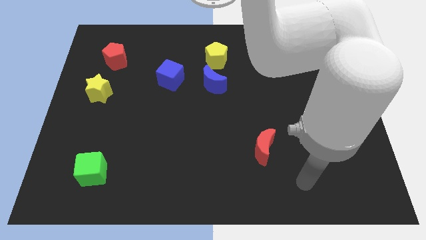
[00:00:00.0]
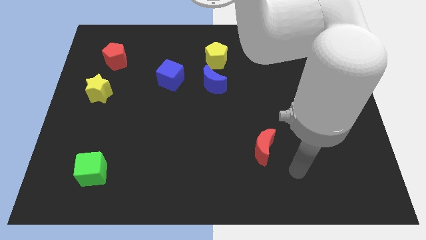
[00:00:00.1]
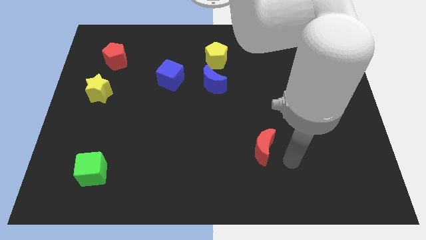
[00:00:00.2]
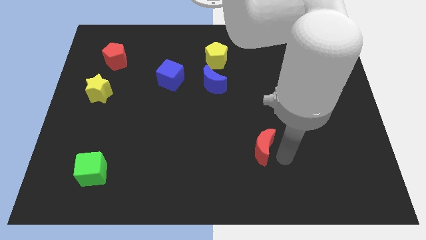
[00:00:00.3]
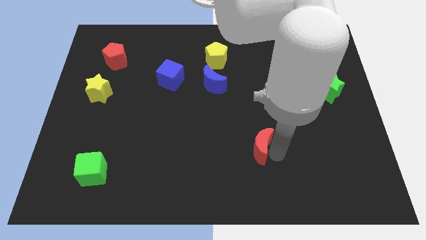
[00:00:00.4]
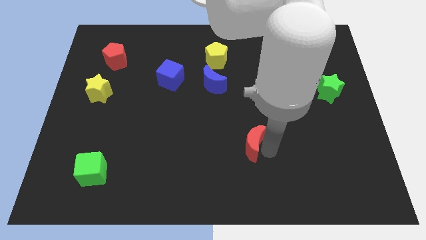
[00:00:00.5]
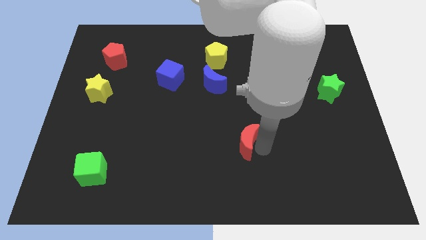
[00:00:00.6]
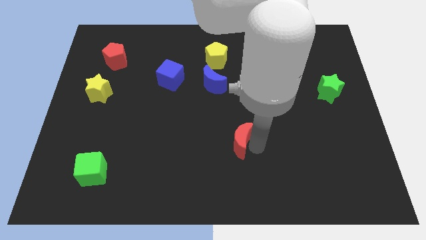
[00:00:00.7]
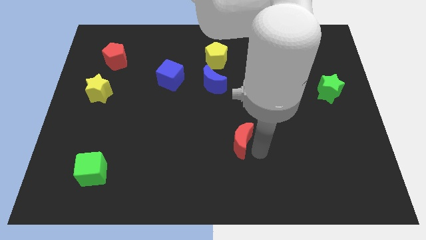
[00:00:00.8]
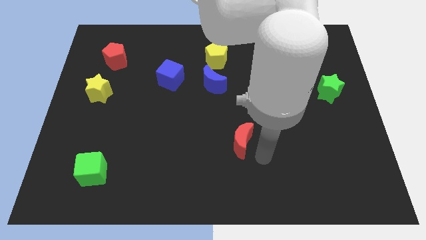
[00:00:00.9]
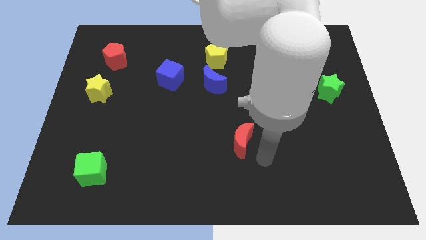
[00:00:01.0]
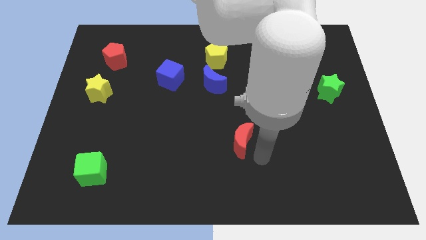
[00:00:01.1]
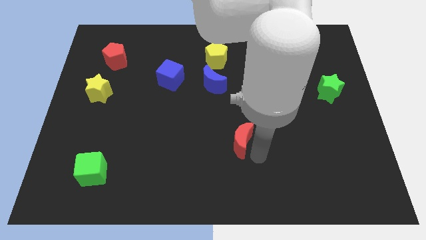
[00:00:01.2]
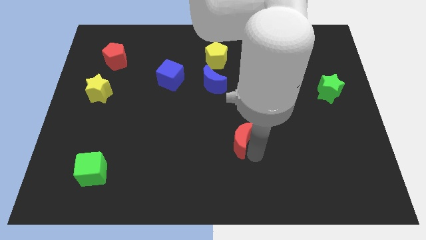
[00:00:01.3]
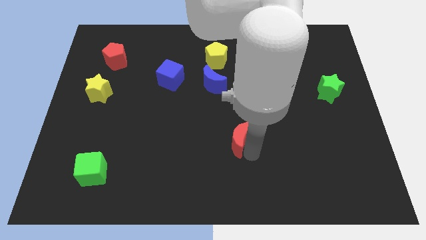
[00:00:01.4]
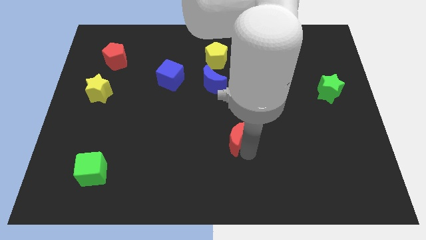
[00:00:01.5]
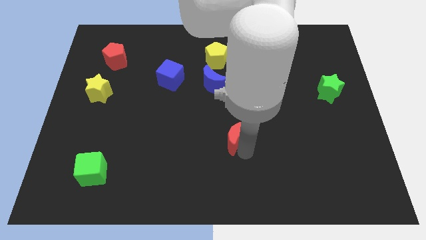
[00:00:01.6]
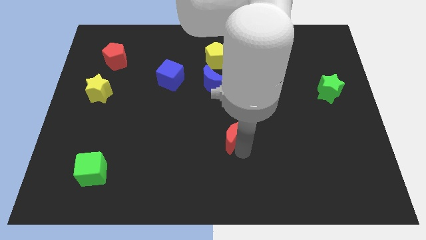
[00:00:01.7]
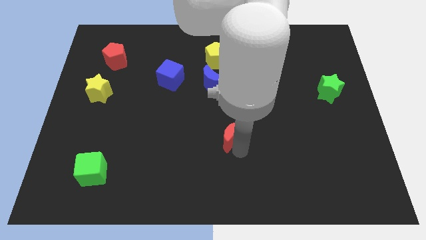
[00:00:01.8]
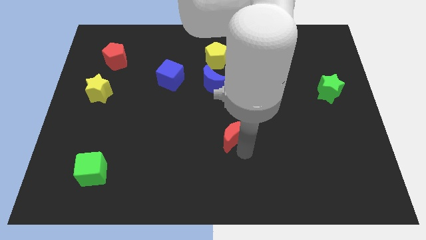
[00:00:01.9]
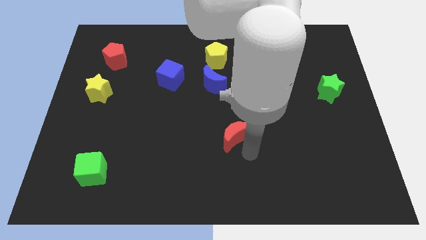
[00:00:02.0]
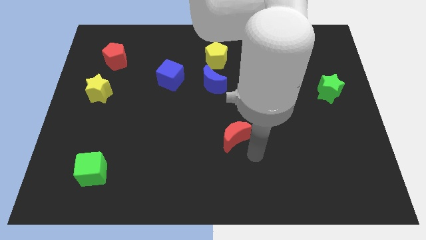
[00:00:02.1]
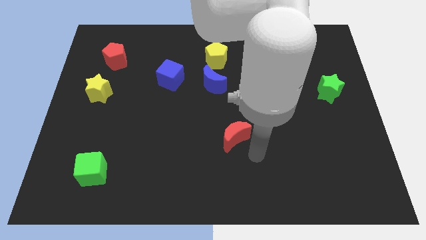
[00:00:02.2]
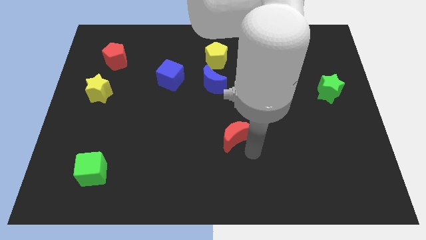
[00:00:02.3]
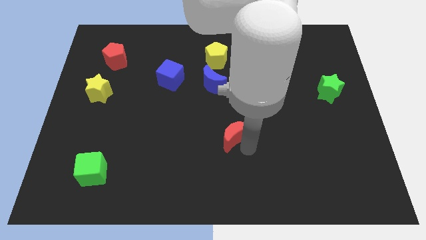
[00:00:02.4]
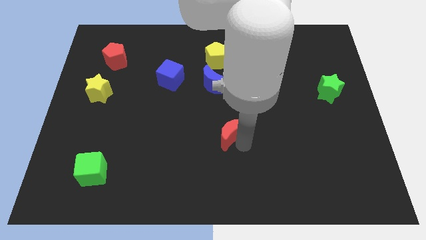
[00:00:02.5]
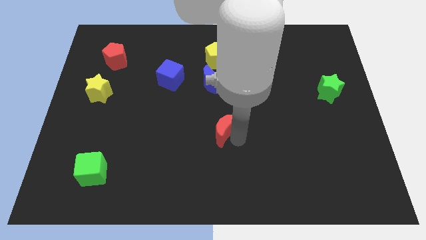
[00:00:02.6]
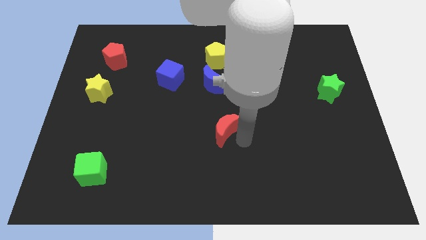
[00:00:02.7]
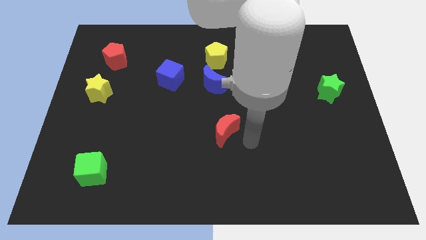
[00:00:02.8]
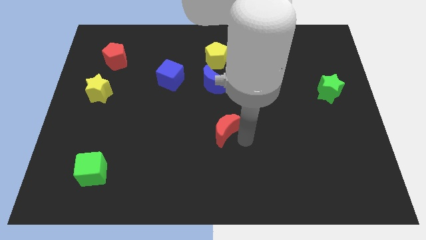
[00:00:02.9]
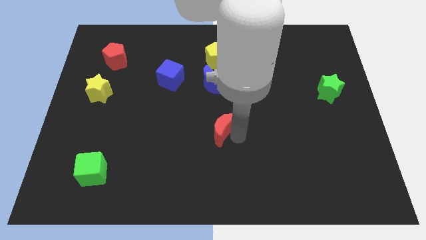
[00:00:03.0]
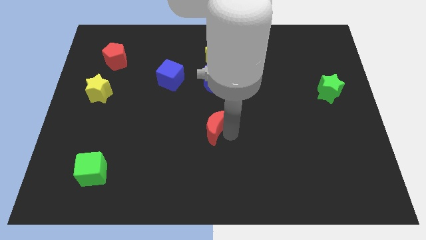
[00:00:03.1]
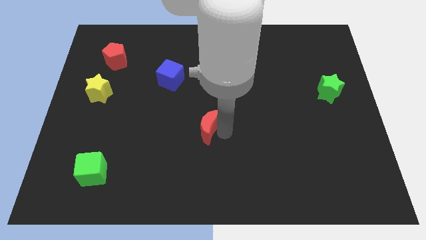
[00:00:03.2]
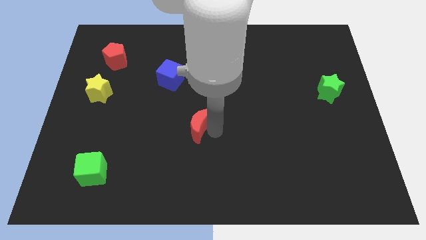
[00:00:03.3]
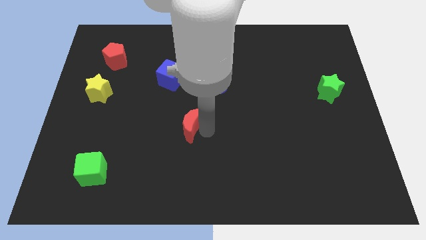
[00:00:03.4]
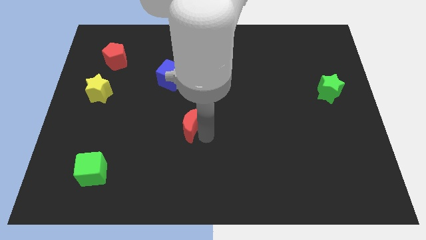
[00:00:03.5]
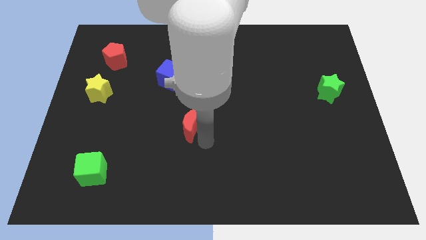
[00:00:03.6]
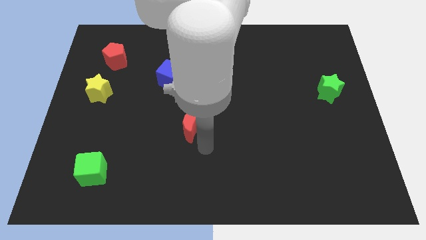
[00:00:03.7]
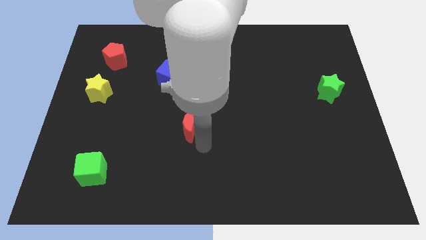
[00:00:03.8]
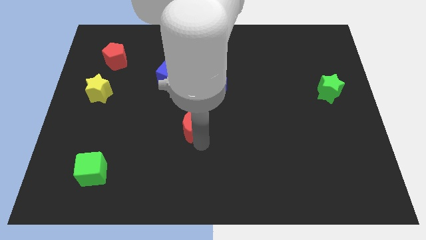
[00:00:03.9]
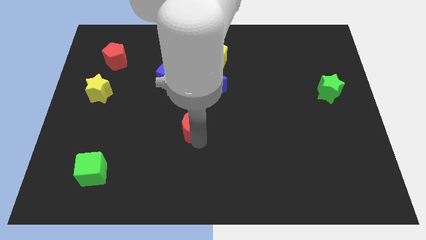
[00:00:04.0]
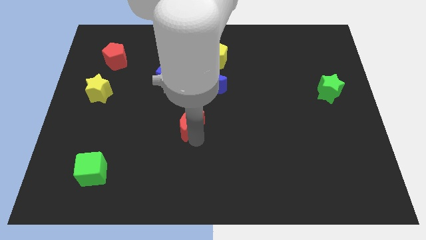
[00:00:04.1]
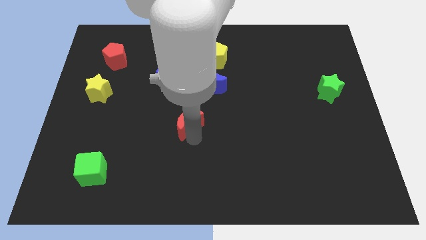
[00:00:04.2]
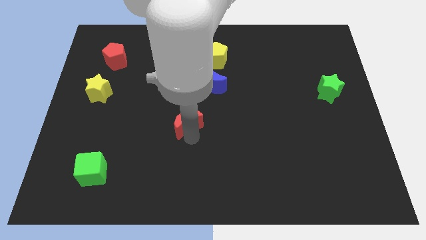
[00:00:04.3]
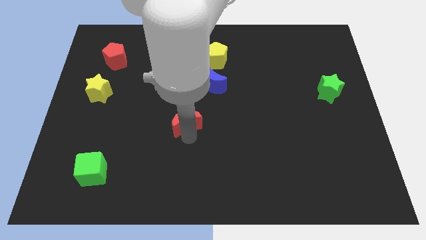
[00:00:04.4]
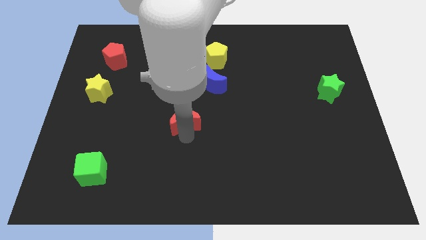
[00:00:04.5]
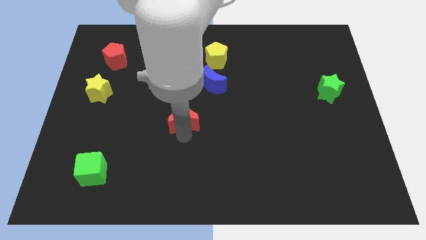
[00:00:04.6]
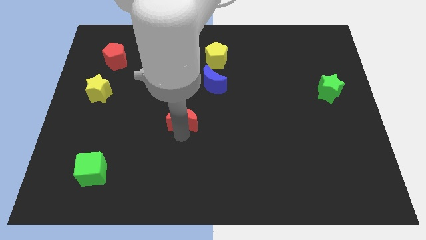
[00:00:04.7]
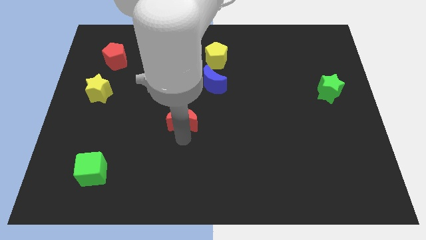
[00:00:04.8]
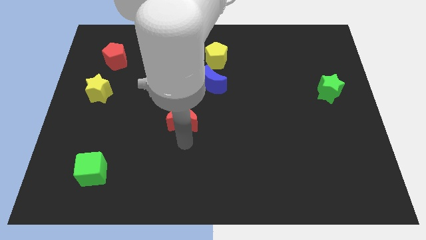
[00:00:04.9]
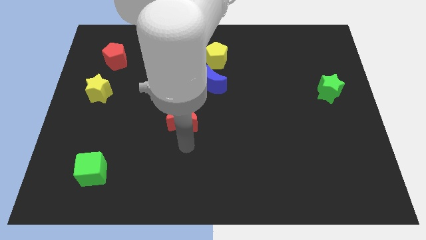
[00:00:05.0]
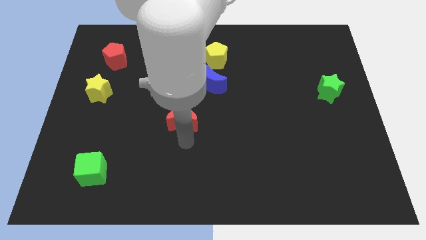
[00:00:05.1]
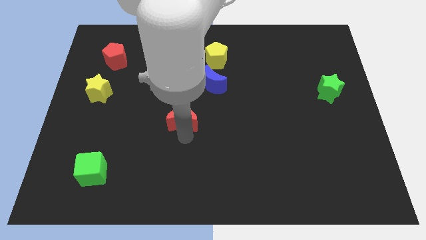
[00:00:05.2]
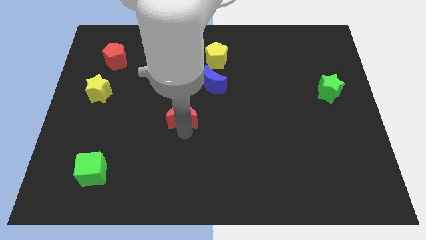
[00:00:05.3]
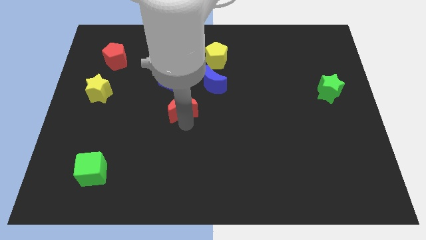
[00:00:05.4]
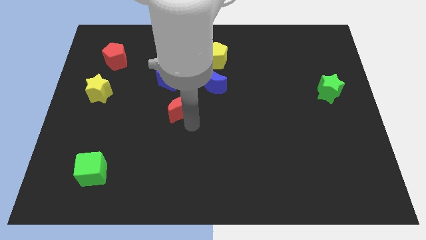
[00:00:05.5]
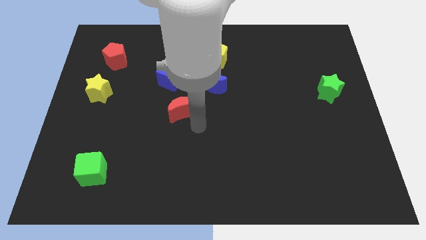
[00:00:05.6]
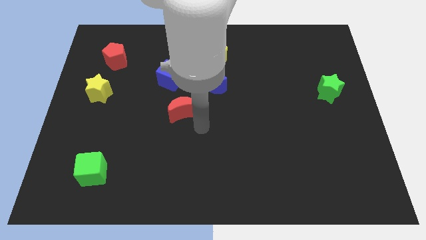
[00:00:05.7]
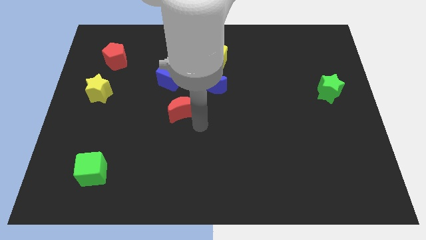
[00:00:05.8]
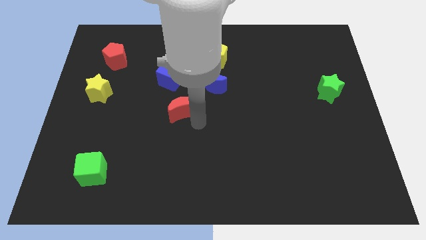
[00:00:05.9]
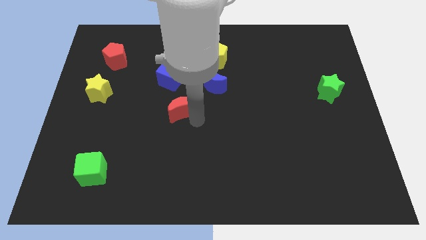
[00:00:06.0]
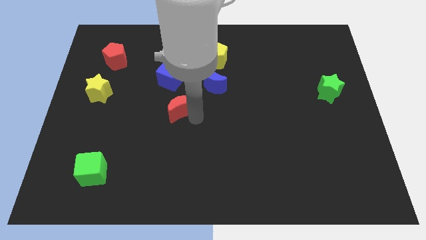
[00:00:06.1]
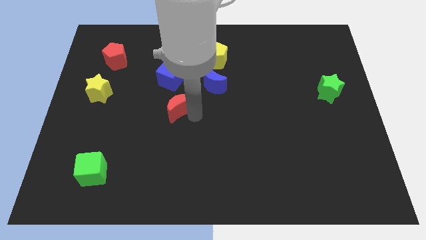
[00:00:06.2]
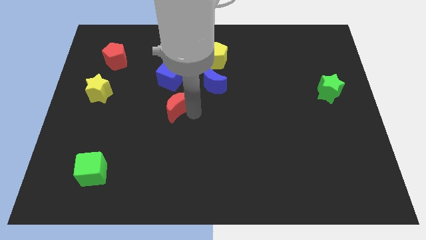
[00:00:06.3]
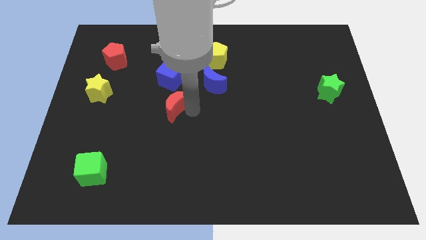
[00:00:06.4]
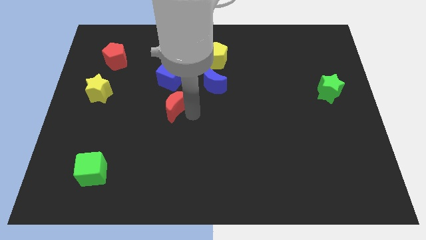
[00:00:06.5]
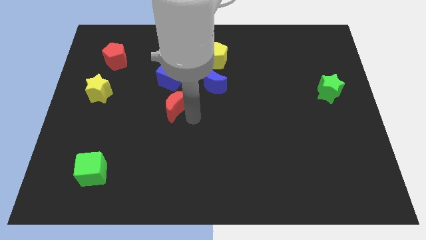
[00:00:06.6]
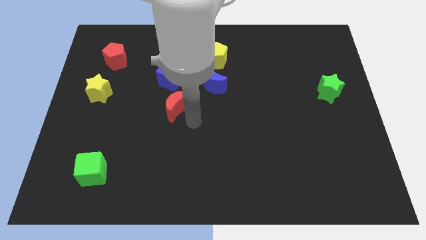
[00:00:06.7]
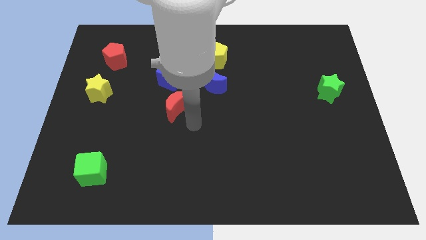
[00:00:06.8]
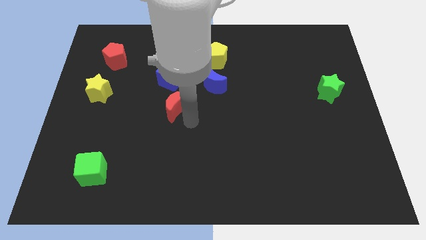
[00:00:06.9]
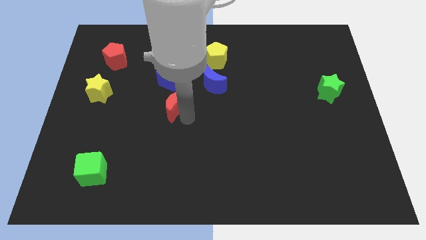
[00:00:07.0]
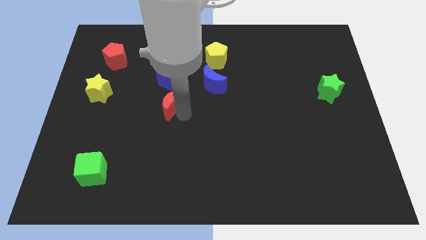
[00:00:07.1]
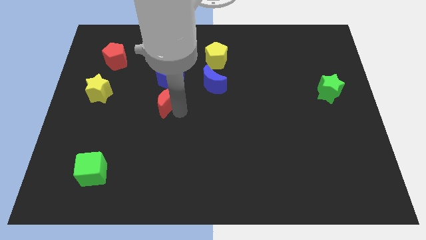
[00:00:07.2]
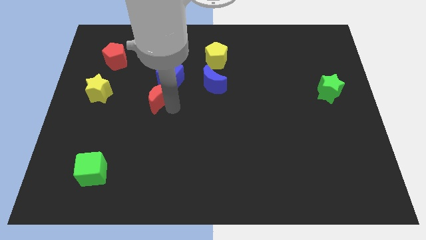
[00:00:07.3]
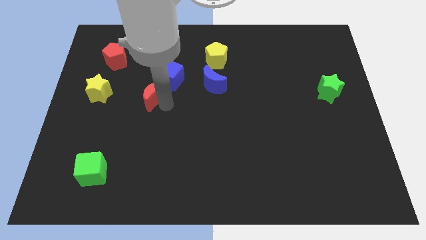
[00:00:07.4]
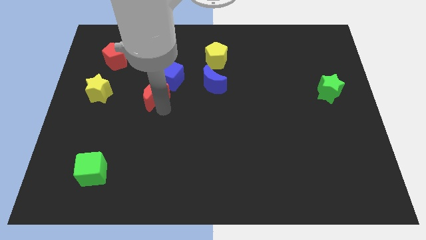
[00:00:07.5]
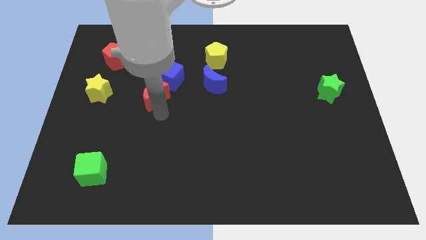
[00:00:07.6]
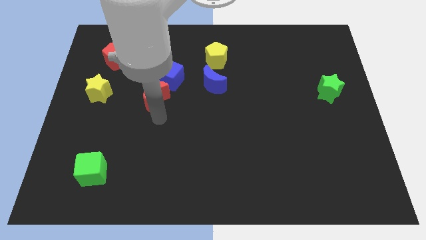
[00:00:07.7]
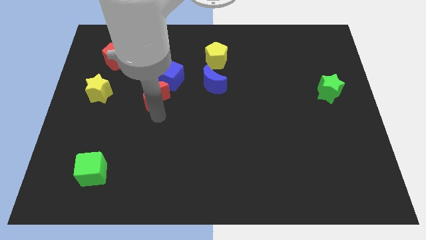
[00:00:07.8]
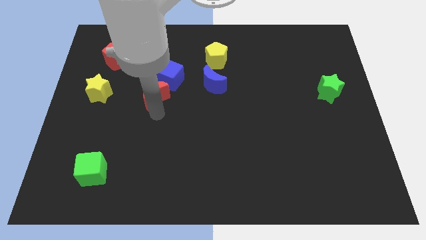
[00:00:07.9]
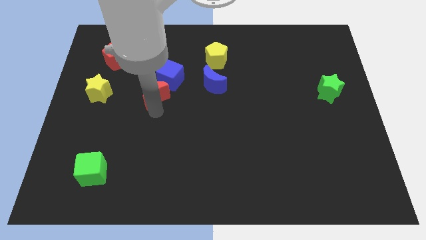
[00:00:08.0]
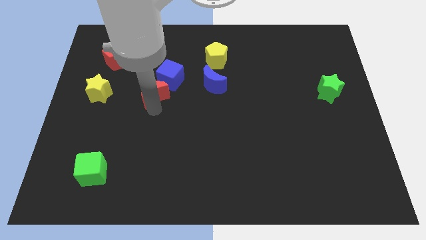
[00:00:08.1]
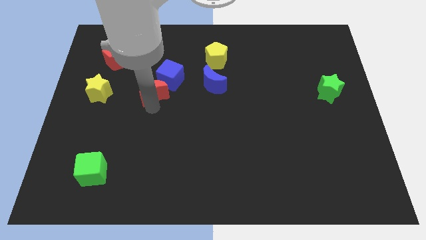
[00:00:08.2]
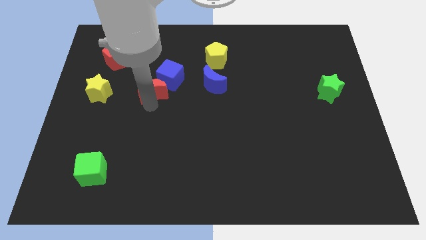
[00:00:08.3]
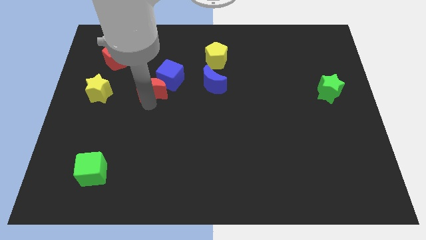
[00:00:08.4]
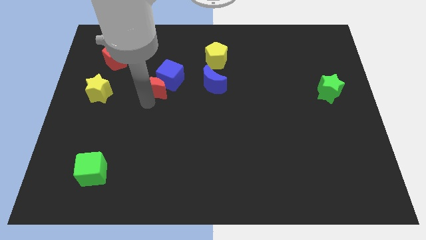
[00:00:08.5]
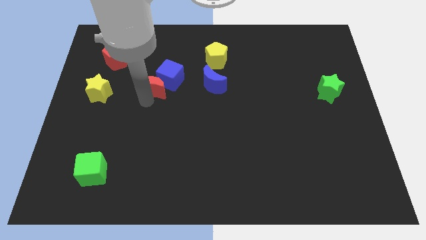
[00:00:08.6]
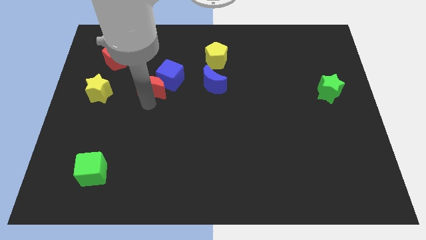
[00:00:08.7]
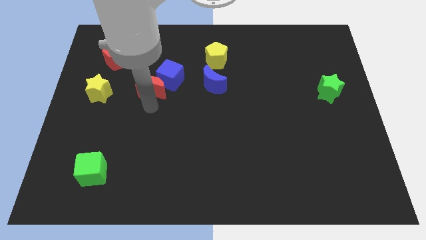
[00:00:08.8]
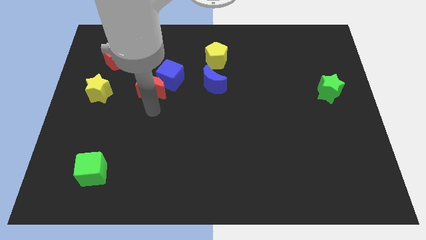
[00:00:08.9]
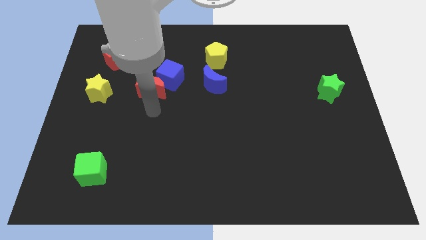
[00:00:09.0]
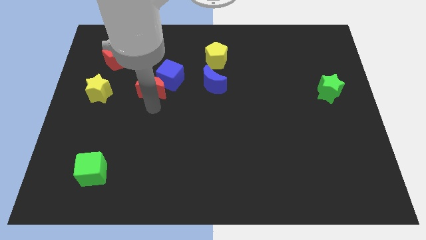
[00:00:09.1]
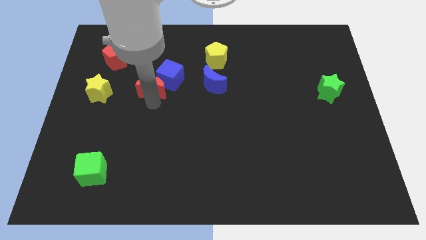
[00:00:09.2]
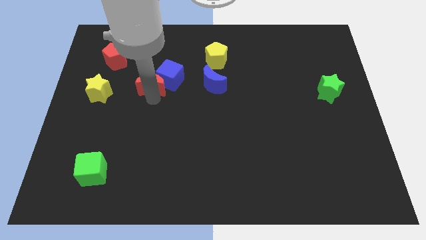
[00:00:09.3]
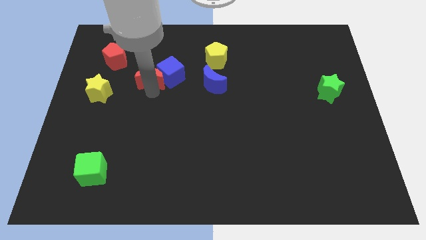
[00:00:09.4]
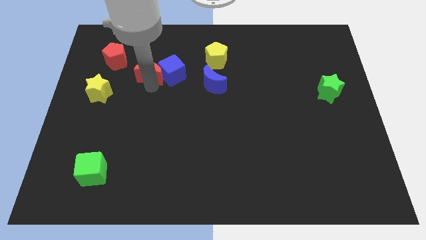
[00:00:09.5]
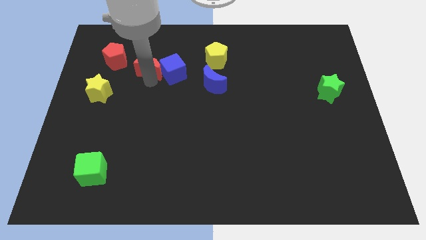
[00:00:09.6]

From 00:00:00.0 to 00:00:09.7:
put the red moon to the right of the red pentagon
